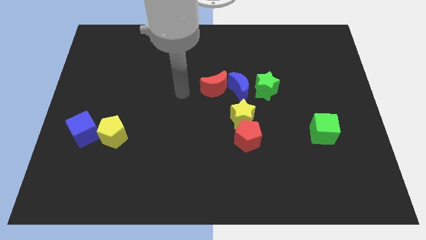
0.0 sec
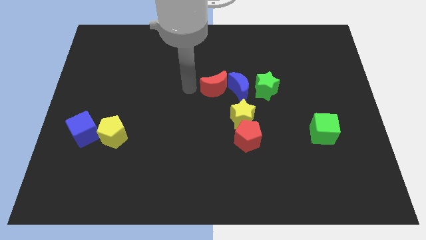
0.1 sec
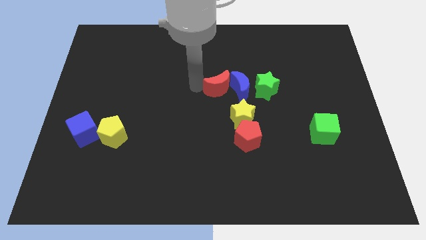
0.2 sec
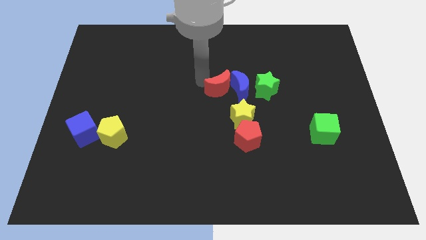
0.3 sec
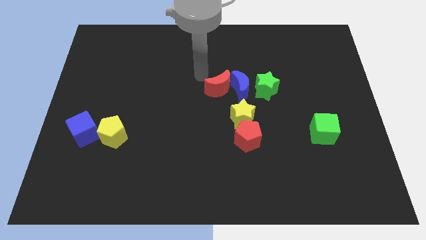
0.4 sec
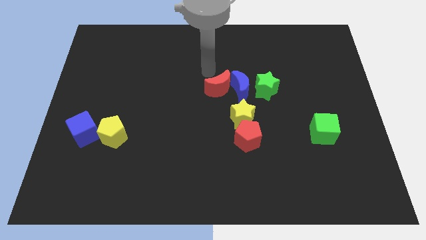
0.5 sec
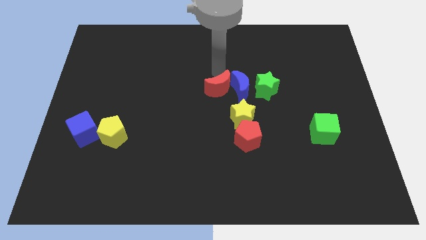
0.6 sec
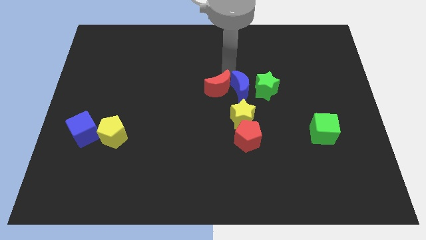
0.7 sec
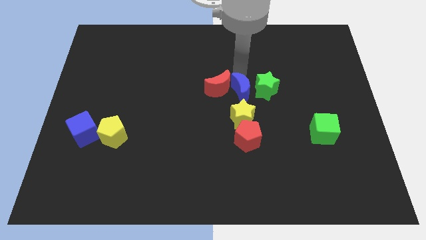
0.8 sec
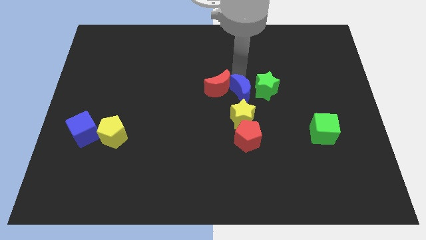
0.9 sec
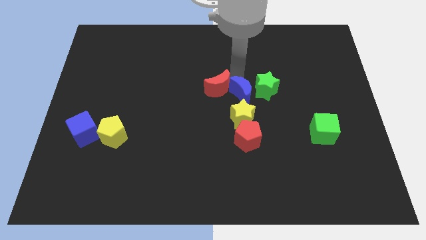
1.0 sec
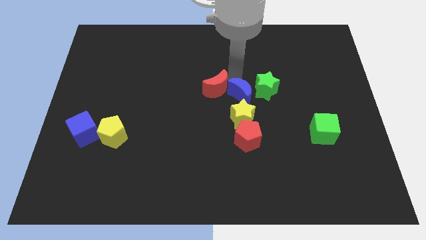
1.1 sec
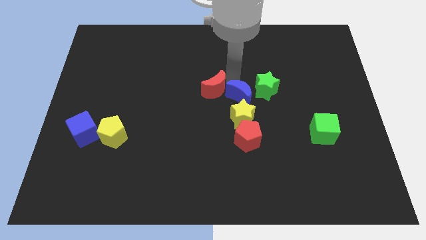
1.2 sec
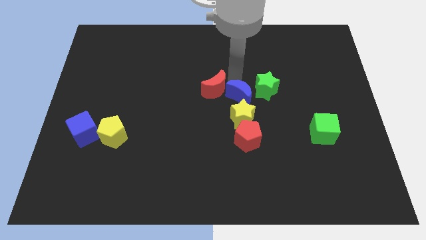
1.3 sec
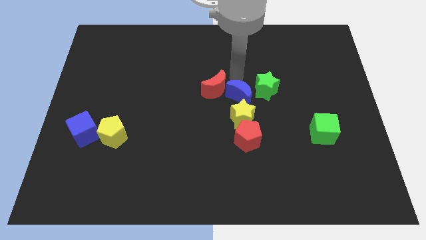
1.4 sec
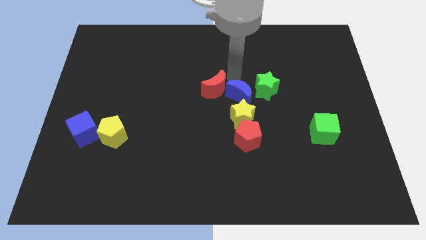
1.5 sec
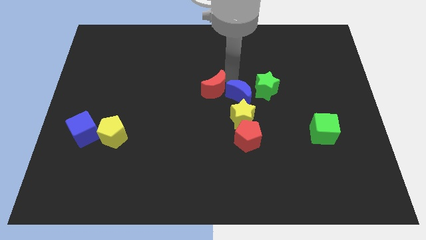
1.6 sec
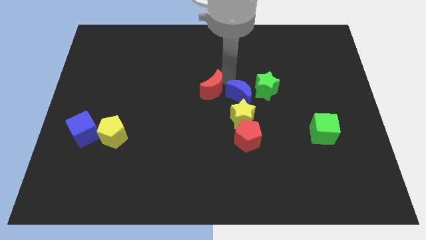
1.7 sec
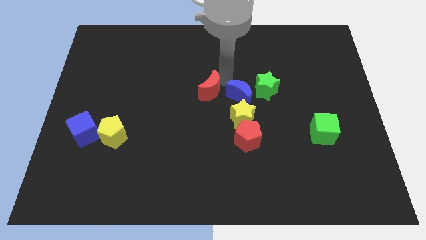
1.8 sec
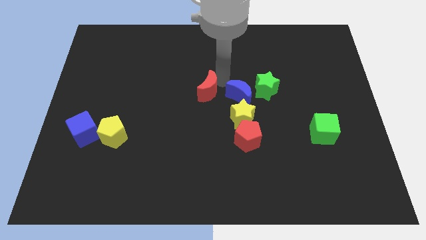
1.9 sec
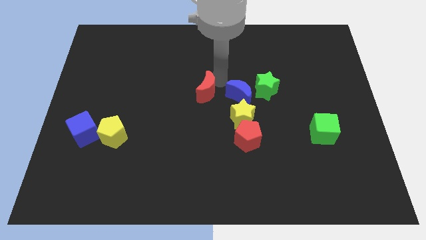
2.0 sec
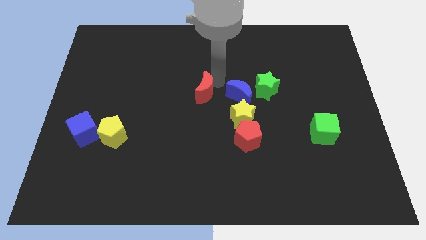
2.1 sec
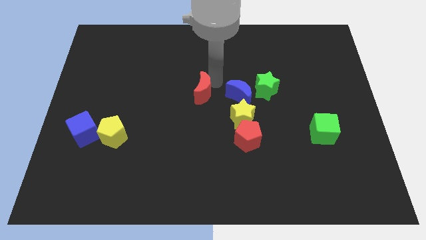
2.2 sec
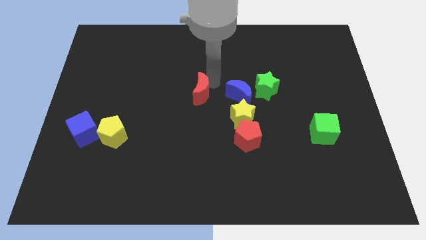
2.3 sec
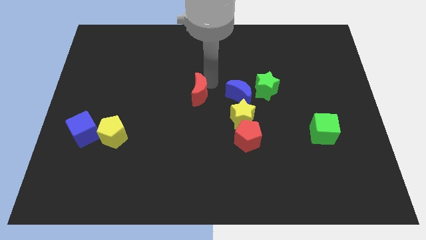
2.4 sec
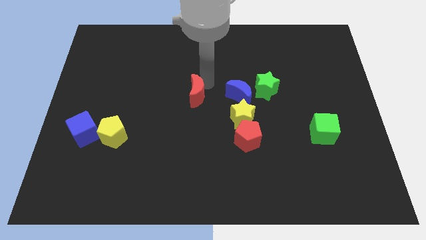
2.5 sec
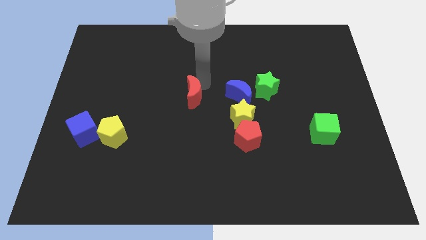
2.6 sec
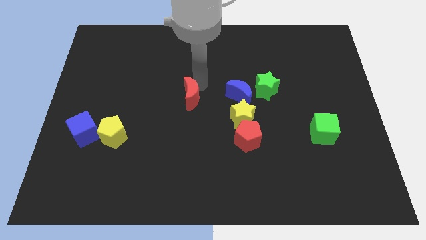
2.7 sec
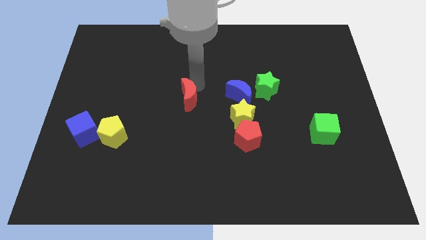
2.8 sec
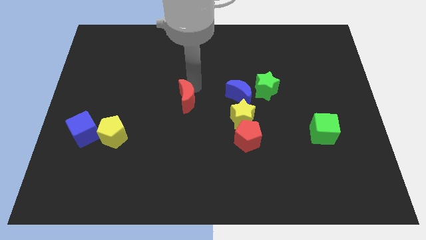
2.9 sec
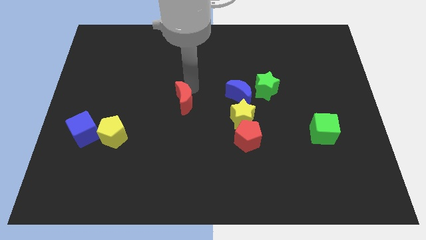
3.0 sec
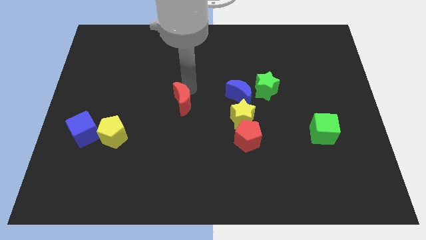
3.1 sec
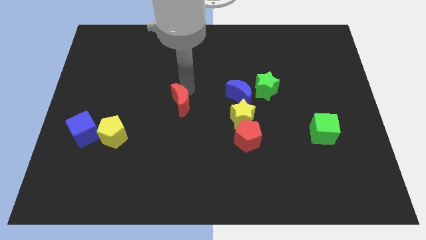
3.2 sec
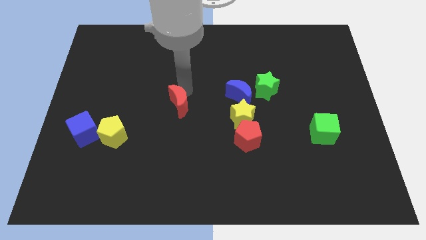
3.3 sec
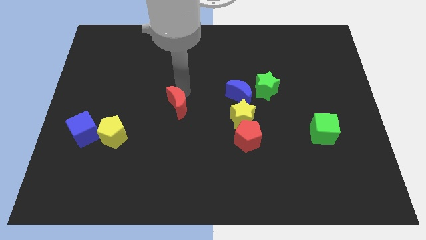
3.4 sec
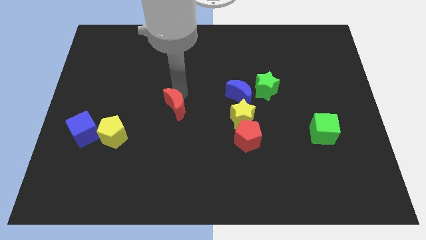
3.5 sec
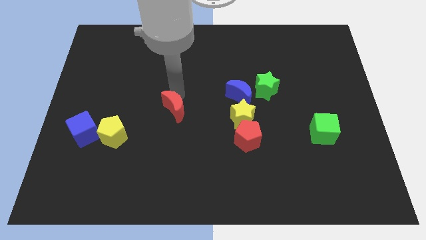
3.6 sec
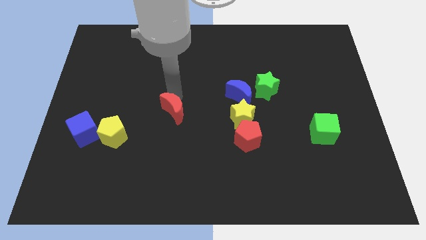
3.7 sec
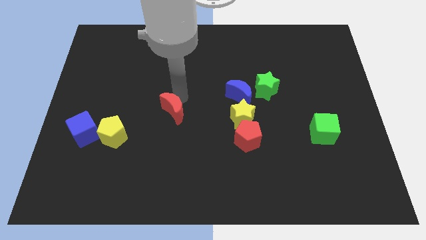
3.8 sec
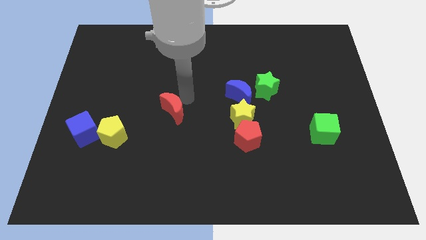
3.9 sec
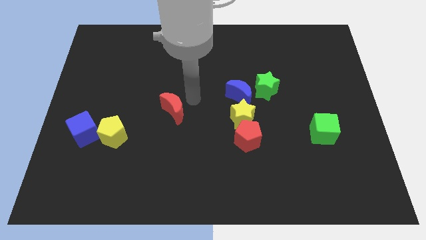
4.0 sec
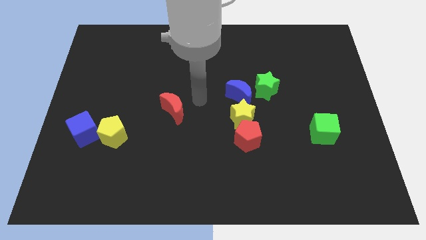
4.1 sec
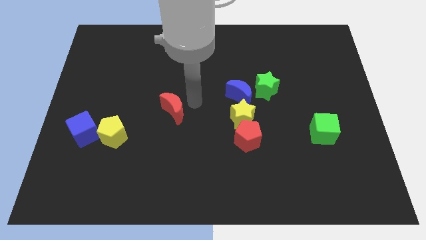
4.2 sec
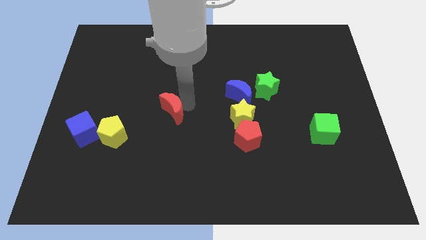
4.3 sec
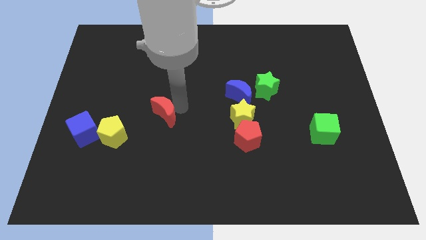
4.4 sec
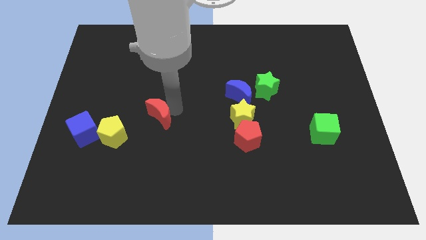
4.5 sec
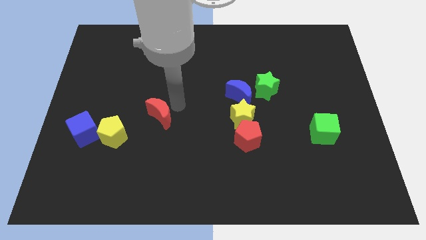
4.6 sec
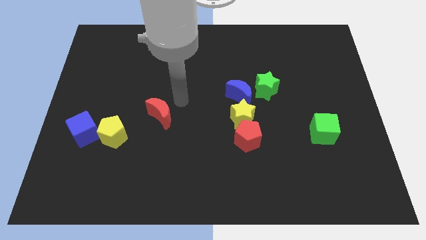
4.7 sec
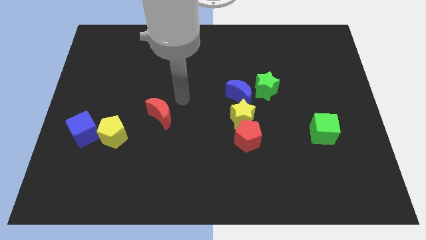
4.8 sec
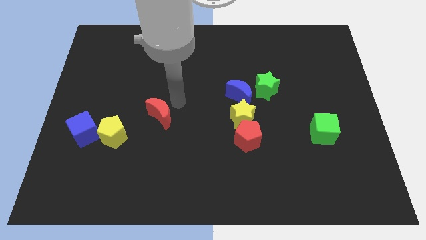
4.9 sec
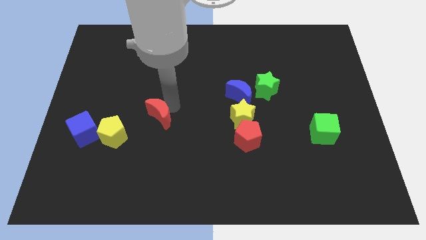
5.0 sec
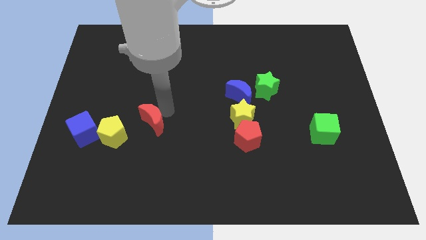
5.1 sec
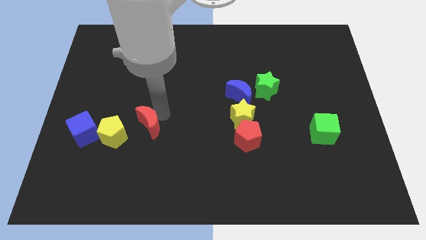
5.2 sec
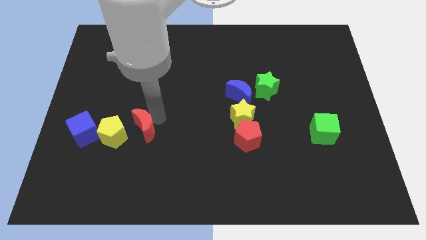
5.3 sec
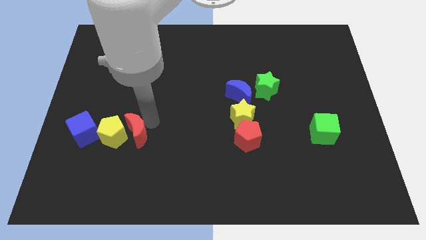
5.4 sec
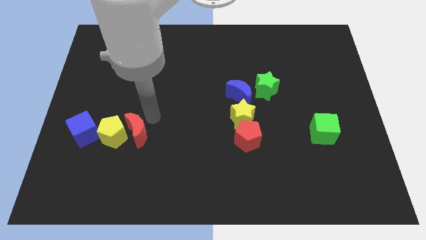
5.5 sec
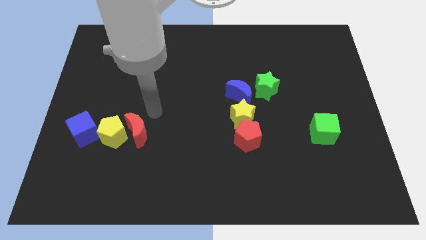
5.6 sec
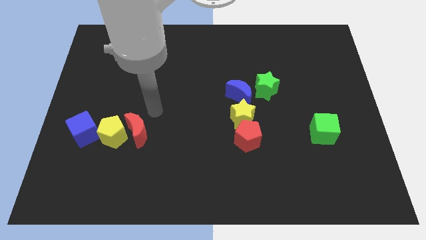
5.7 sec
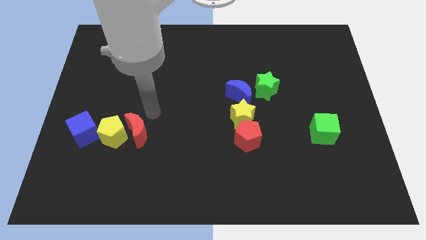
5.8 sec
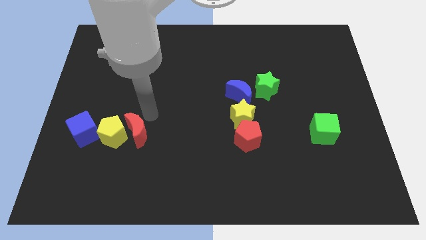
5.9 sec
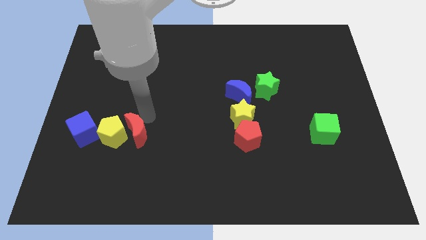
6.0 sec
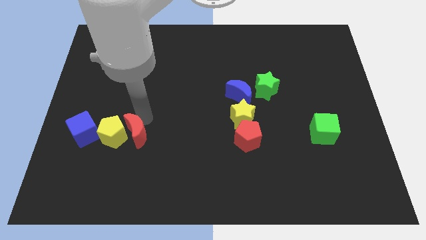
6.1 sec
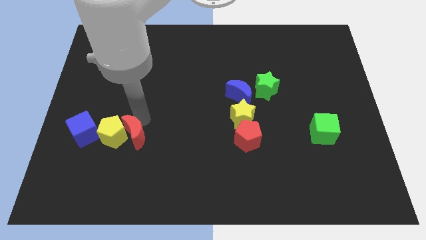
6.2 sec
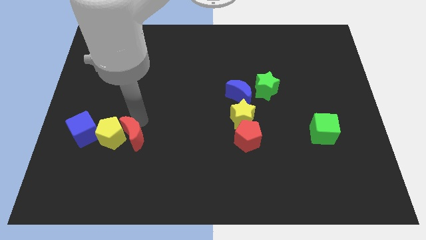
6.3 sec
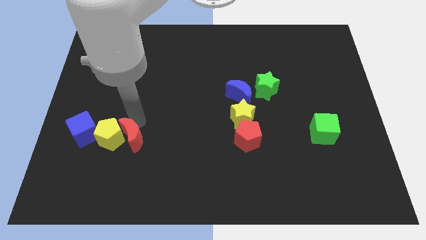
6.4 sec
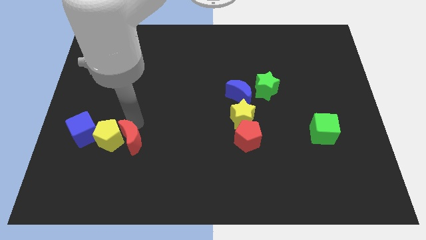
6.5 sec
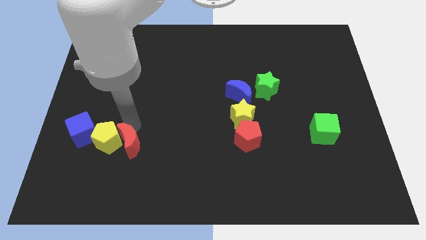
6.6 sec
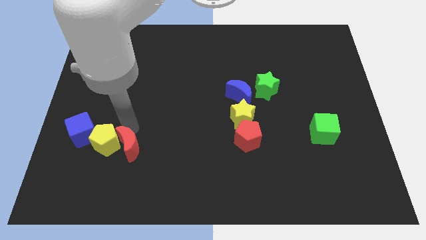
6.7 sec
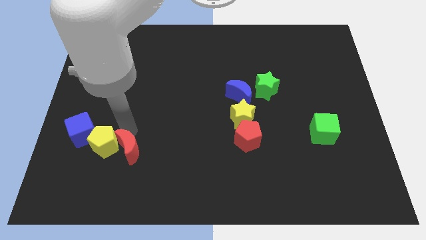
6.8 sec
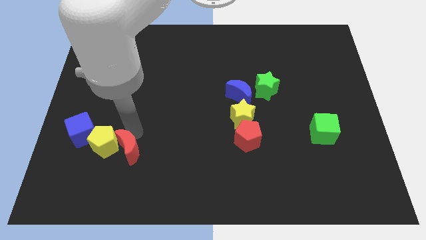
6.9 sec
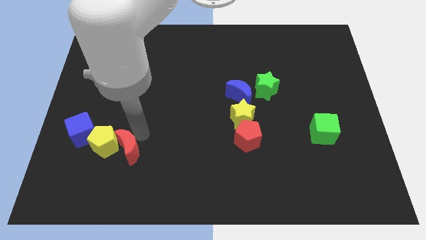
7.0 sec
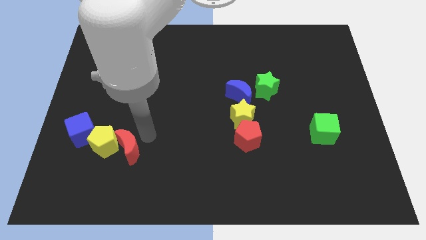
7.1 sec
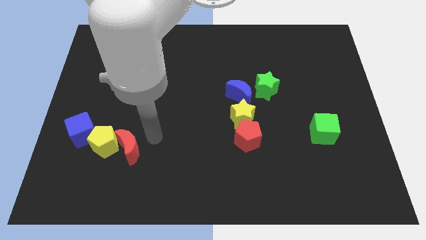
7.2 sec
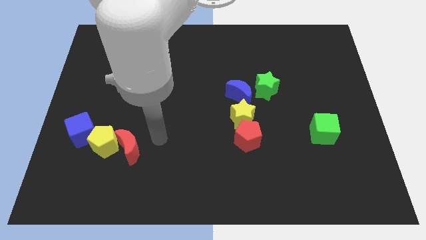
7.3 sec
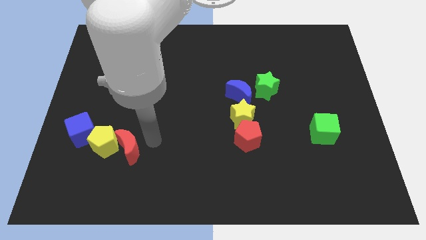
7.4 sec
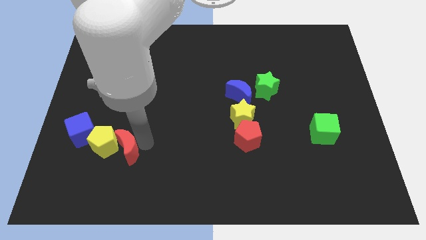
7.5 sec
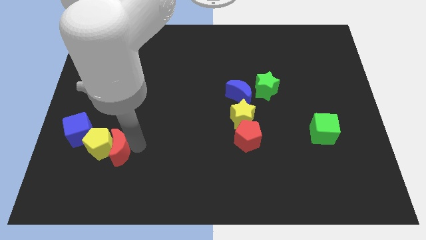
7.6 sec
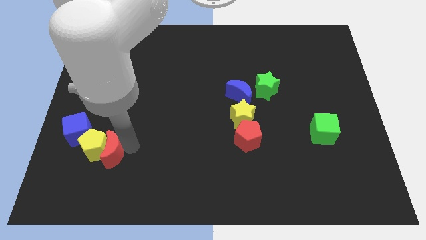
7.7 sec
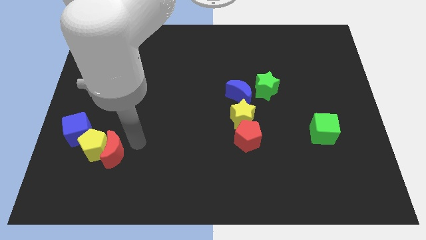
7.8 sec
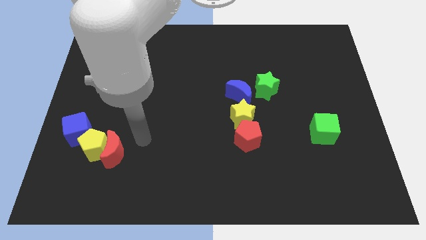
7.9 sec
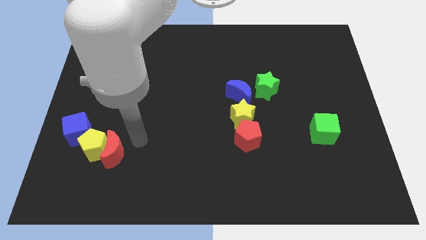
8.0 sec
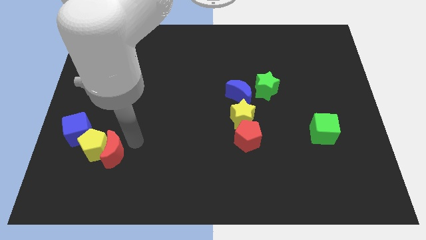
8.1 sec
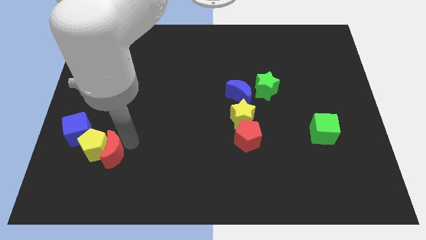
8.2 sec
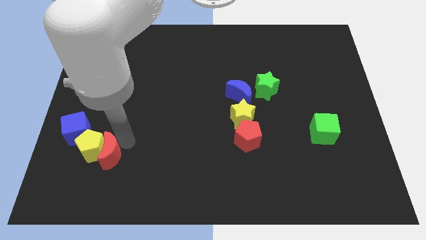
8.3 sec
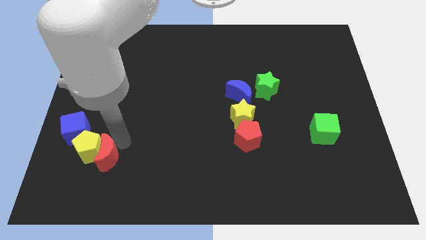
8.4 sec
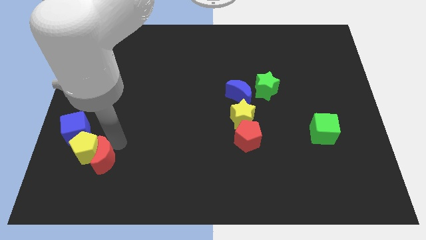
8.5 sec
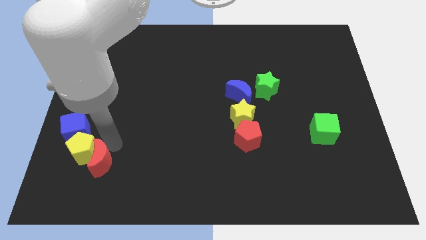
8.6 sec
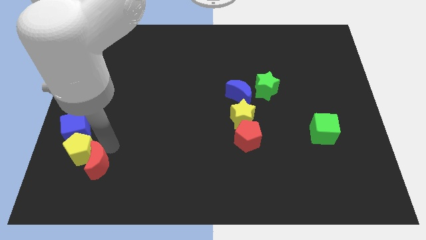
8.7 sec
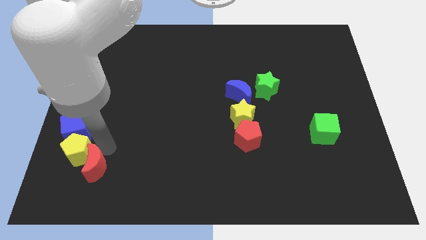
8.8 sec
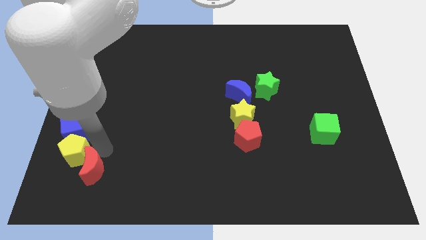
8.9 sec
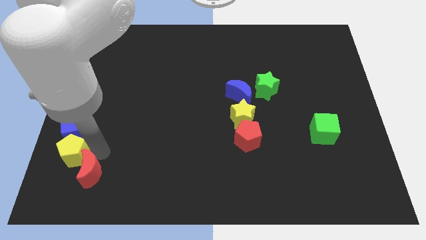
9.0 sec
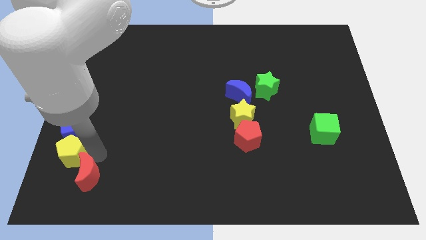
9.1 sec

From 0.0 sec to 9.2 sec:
move the red moon to the bottom side of the blue cube
